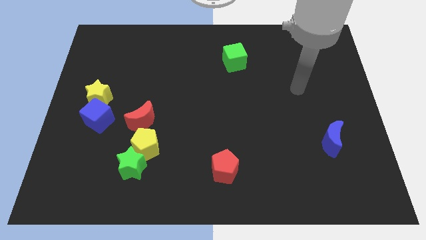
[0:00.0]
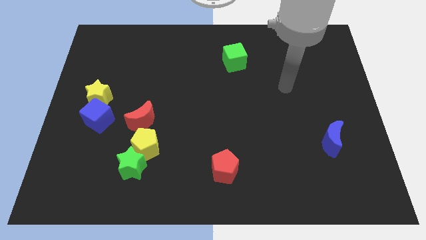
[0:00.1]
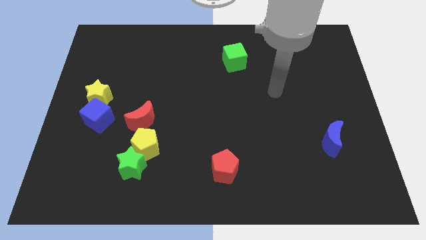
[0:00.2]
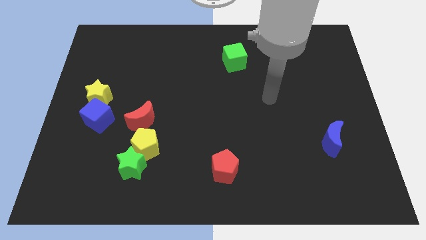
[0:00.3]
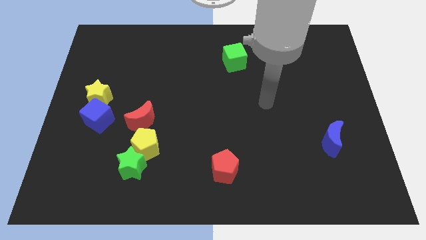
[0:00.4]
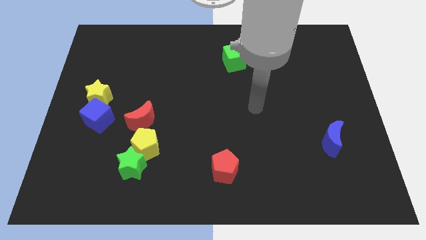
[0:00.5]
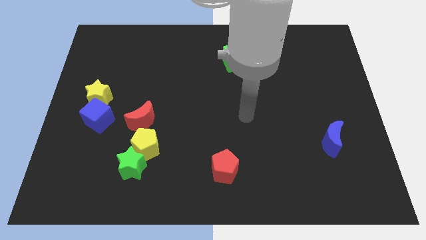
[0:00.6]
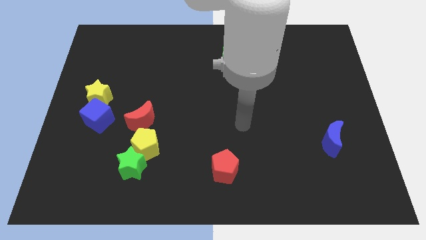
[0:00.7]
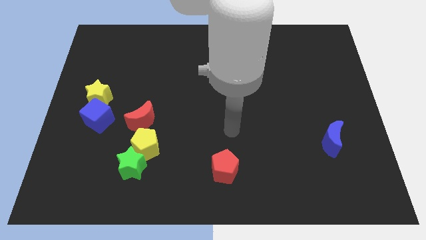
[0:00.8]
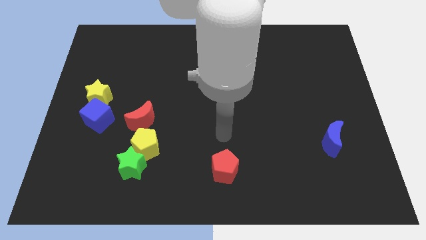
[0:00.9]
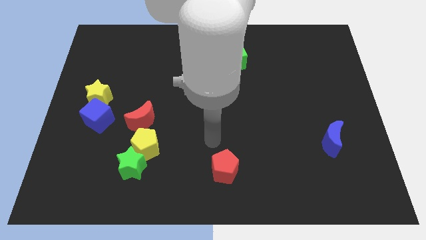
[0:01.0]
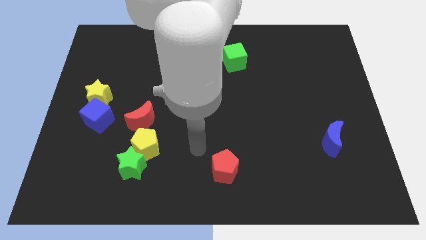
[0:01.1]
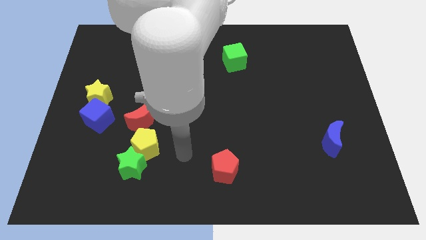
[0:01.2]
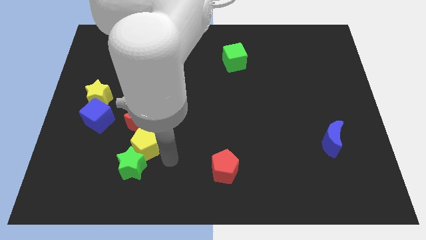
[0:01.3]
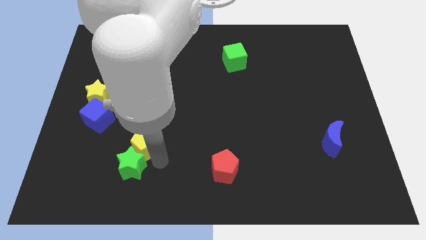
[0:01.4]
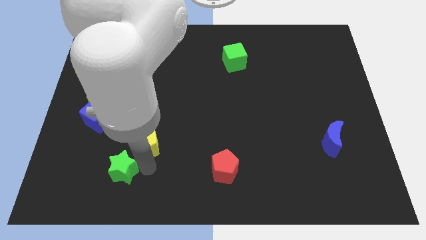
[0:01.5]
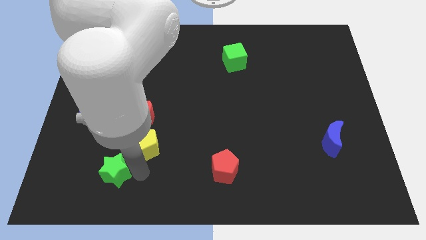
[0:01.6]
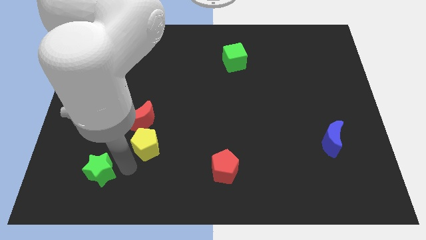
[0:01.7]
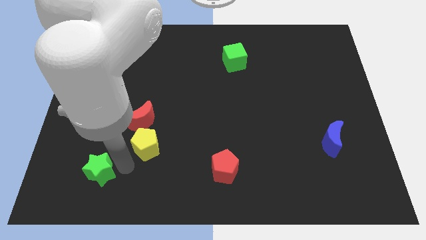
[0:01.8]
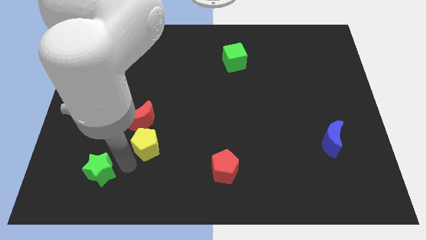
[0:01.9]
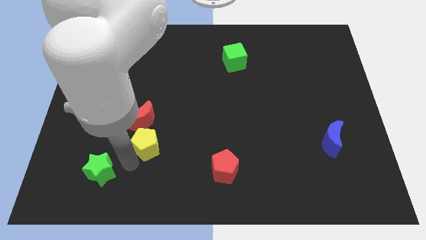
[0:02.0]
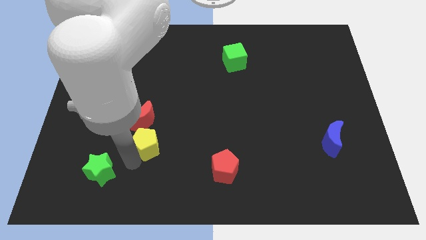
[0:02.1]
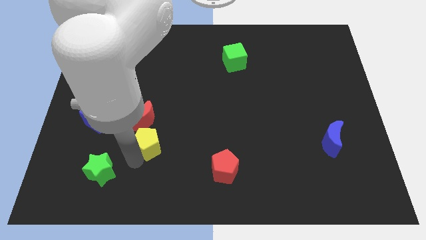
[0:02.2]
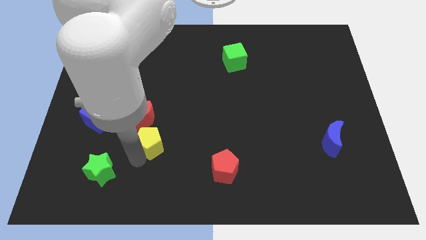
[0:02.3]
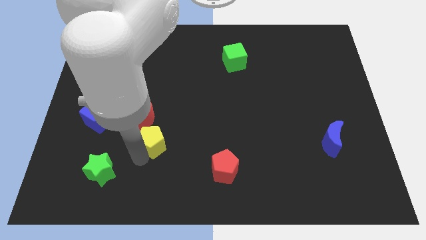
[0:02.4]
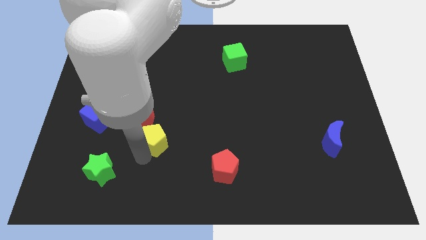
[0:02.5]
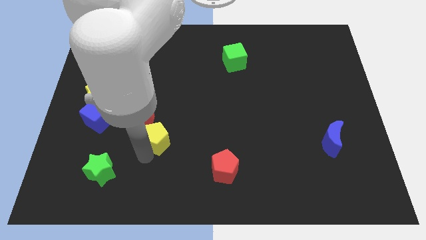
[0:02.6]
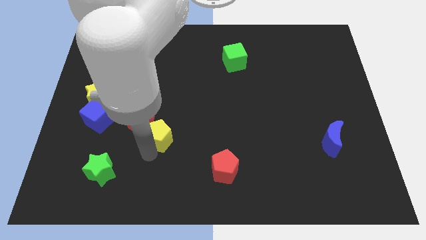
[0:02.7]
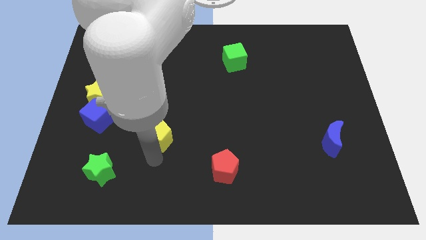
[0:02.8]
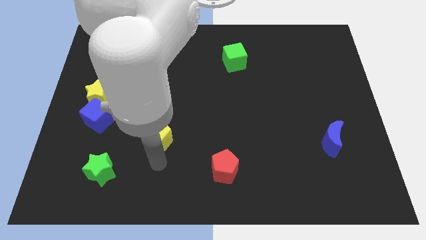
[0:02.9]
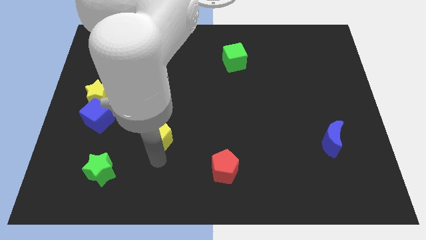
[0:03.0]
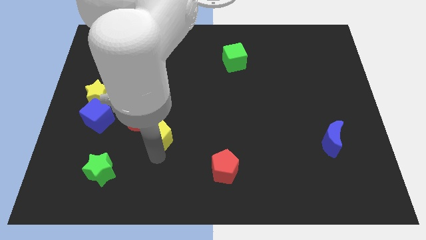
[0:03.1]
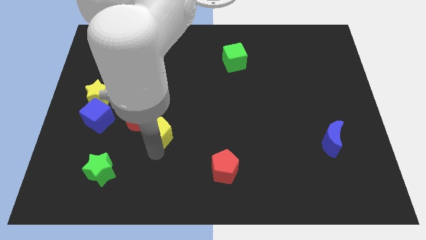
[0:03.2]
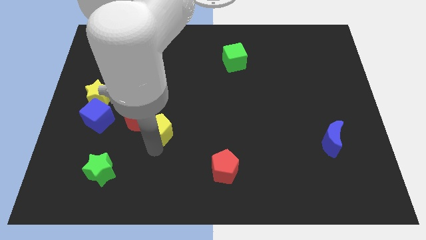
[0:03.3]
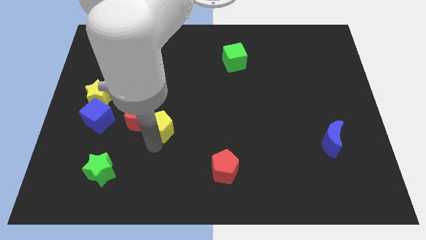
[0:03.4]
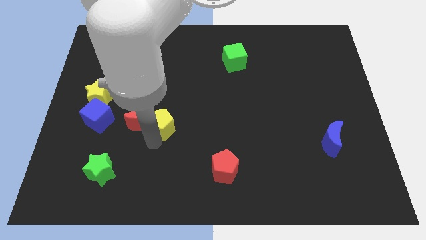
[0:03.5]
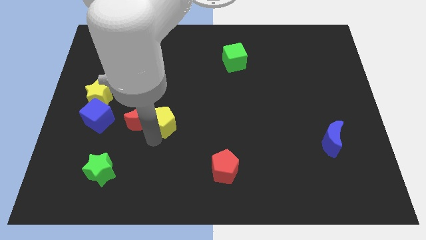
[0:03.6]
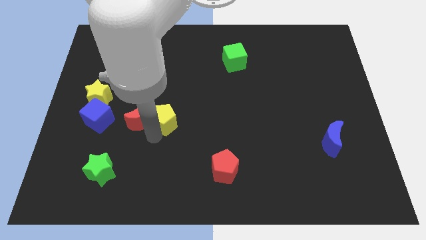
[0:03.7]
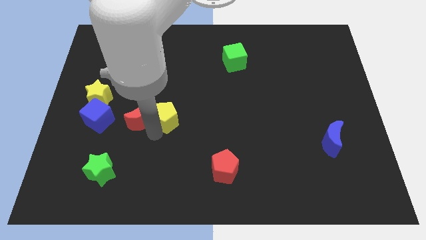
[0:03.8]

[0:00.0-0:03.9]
slide the yellow pentagon up a little bit

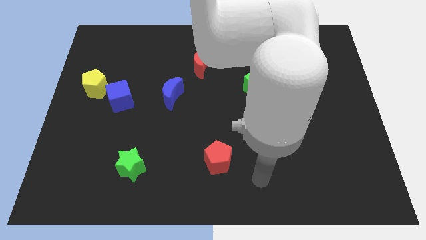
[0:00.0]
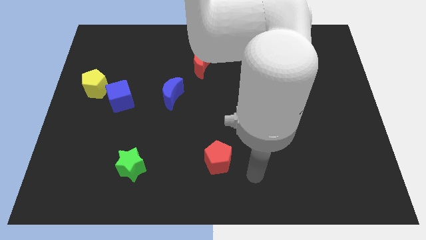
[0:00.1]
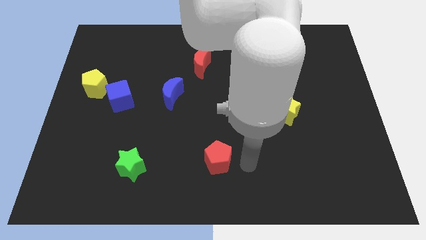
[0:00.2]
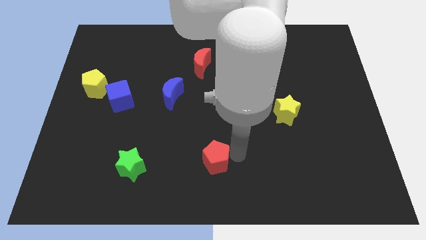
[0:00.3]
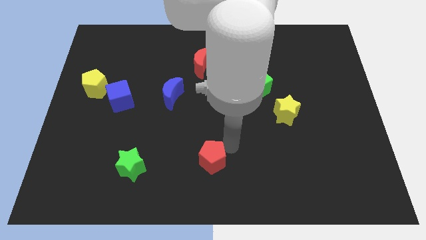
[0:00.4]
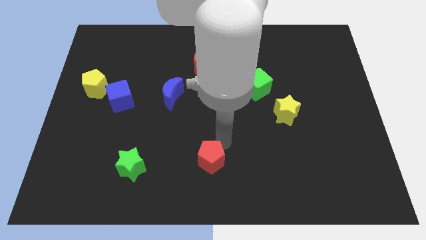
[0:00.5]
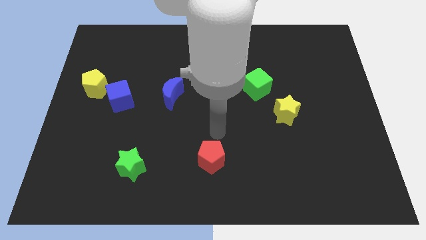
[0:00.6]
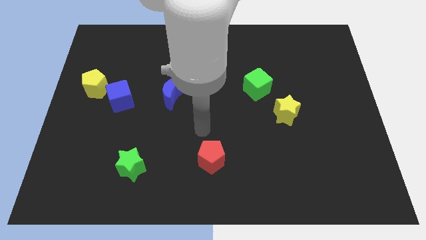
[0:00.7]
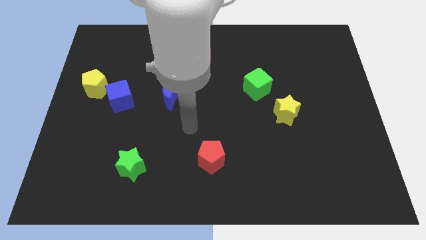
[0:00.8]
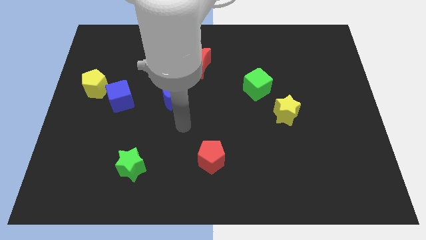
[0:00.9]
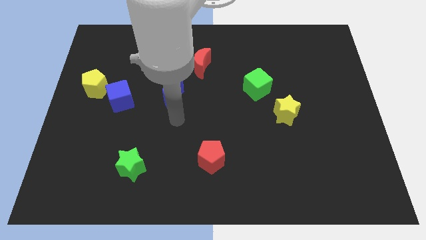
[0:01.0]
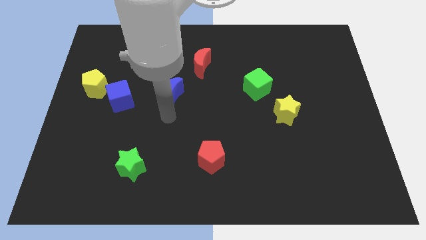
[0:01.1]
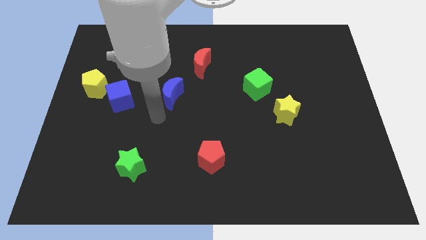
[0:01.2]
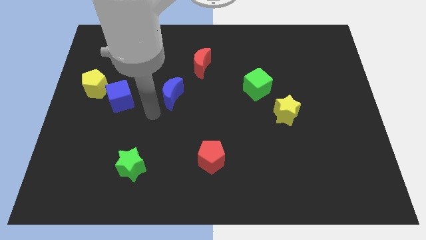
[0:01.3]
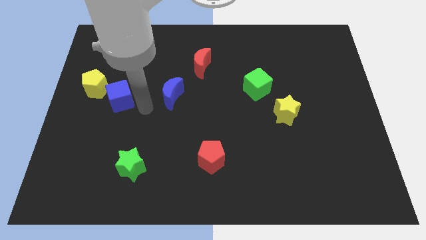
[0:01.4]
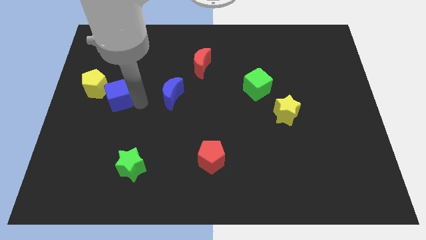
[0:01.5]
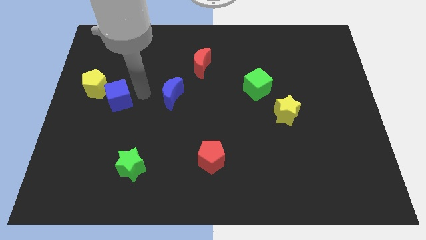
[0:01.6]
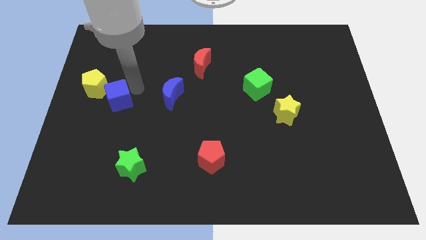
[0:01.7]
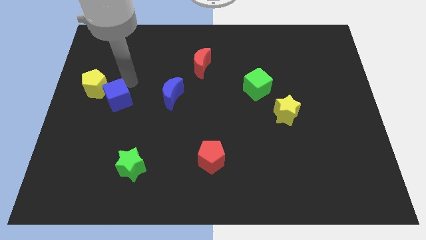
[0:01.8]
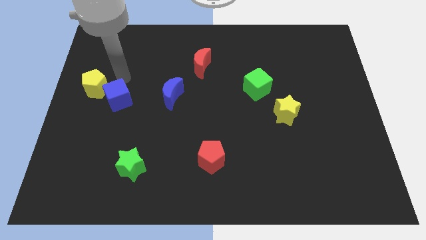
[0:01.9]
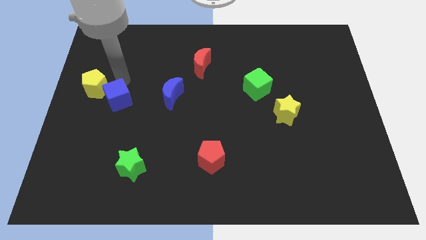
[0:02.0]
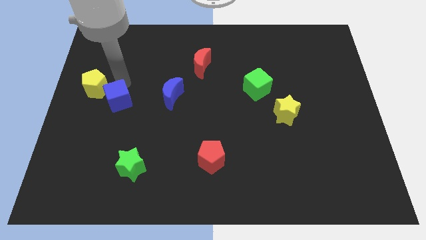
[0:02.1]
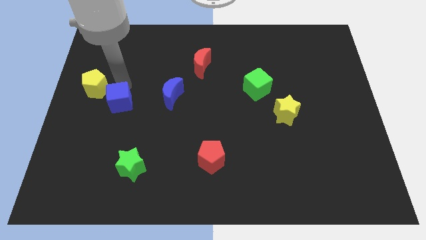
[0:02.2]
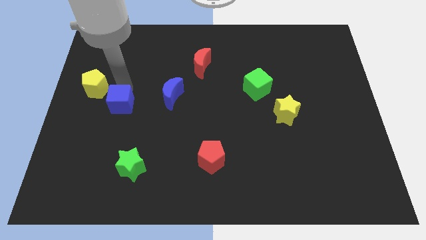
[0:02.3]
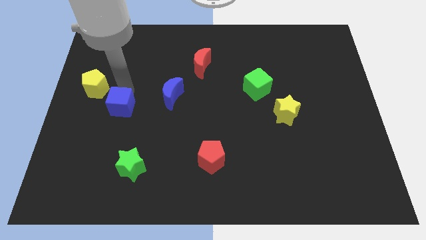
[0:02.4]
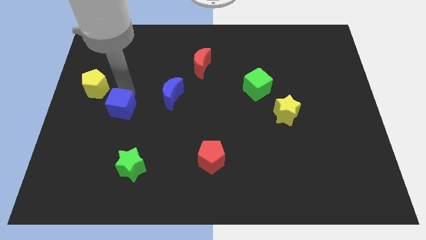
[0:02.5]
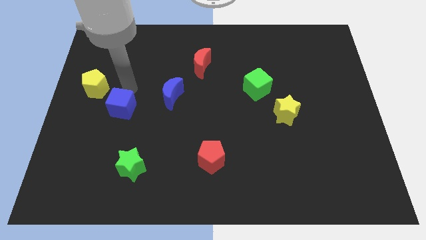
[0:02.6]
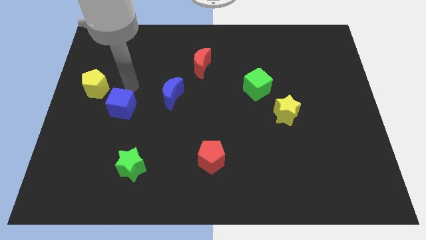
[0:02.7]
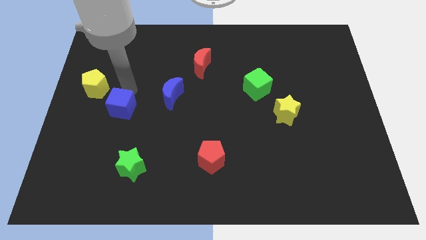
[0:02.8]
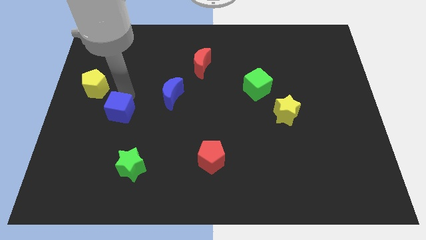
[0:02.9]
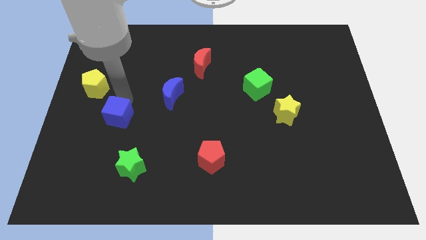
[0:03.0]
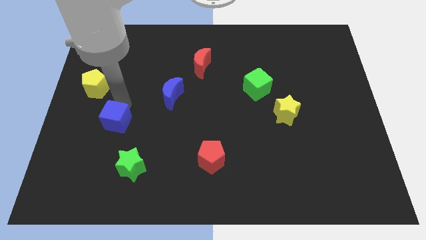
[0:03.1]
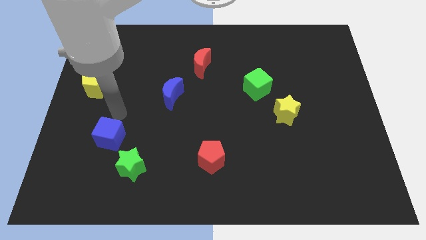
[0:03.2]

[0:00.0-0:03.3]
slightly push the blue cube downwards

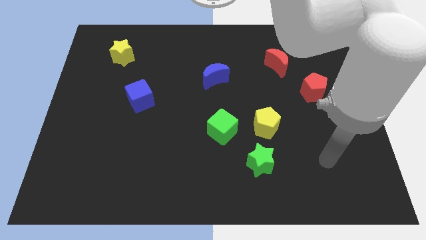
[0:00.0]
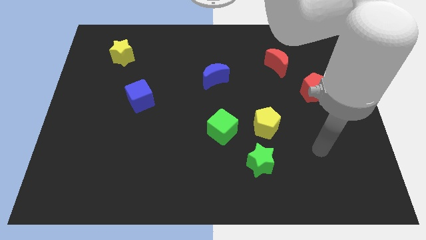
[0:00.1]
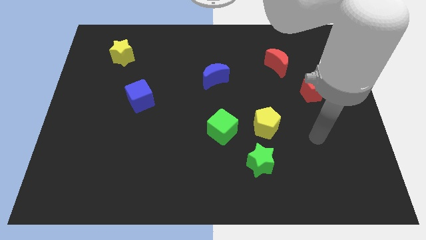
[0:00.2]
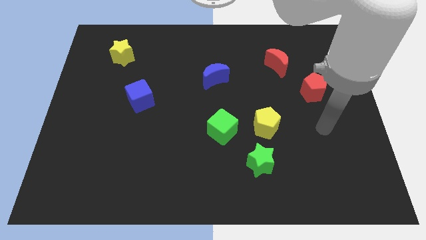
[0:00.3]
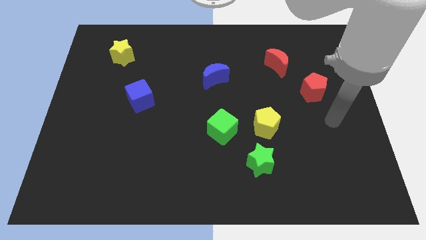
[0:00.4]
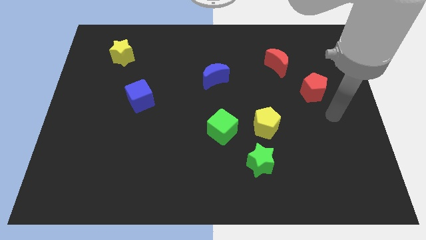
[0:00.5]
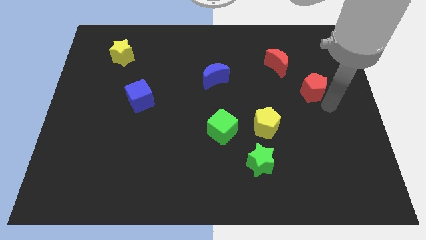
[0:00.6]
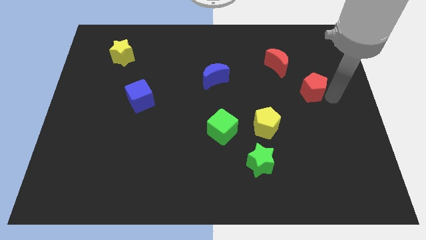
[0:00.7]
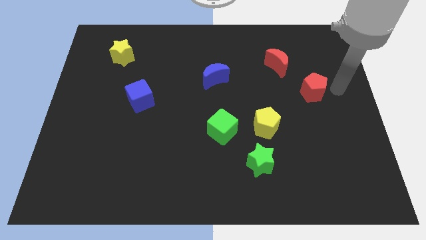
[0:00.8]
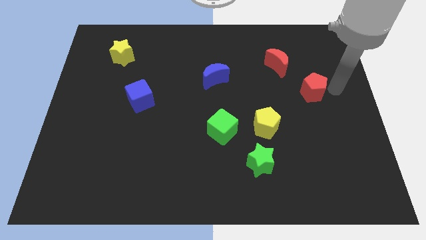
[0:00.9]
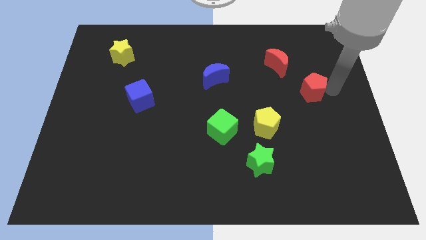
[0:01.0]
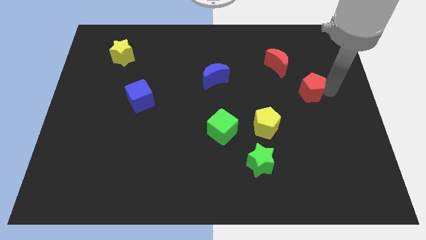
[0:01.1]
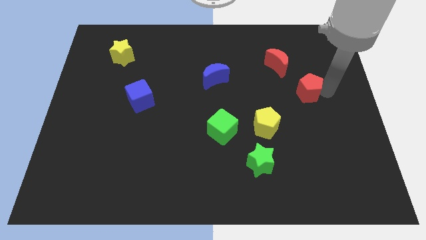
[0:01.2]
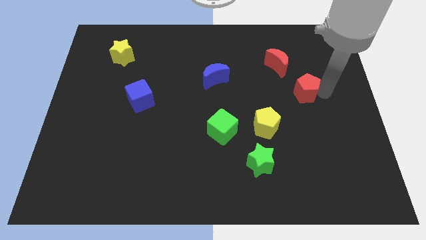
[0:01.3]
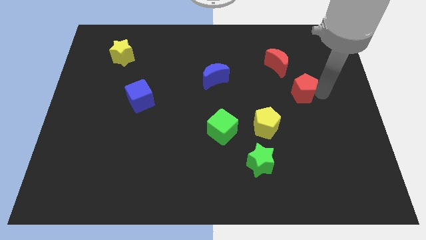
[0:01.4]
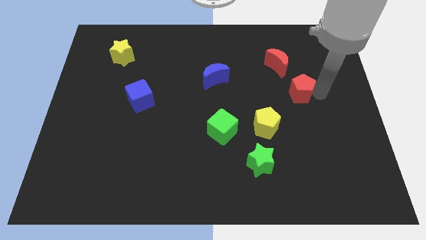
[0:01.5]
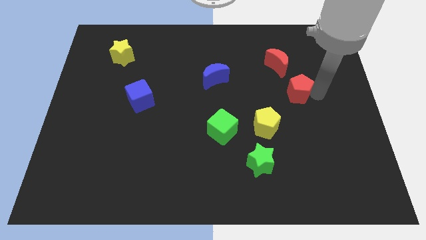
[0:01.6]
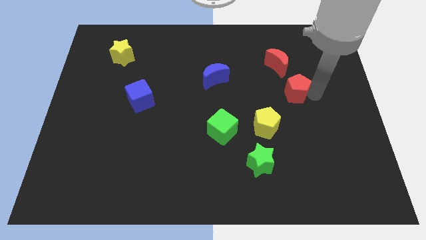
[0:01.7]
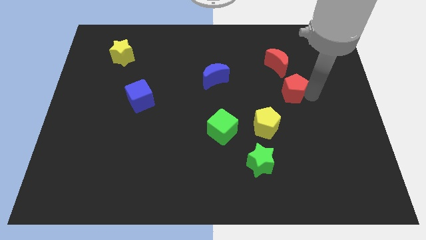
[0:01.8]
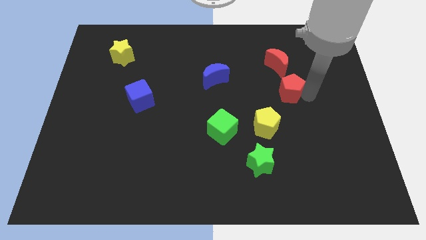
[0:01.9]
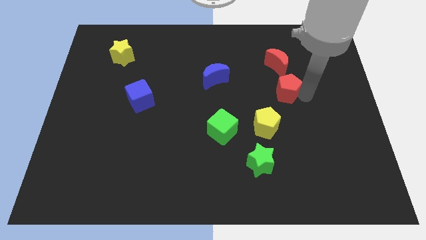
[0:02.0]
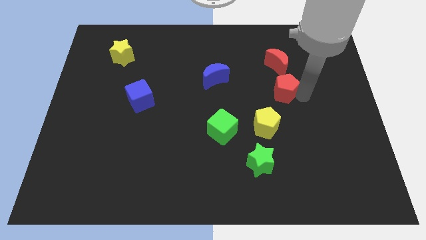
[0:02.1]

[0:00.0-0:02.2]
slightly push the red pentagon left
